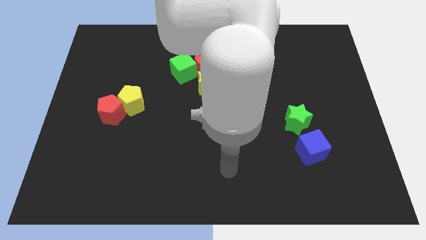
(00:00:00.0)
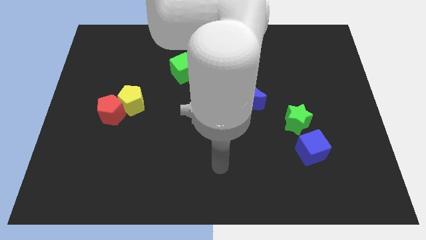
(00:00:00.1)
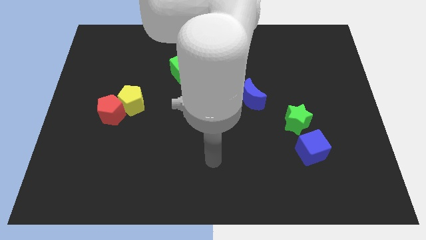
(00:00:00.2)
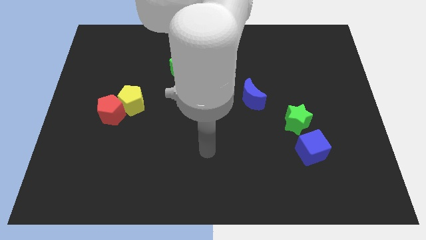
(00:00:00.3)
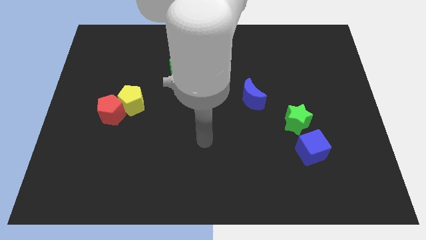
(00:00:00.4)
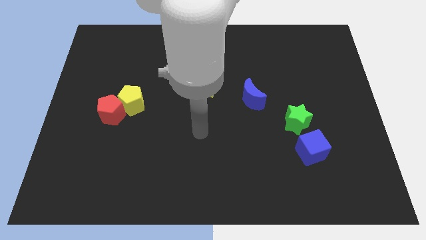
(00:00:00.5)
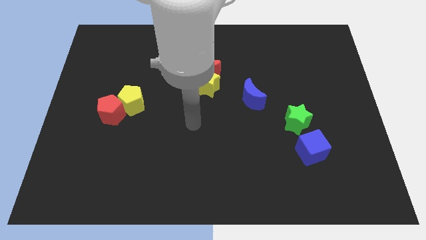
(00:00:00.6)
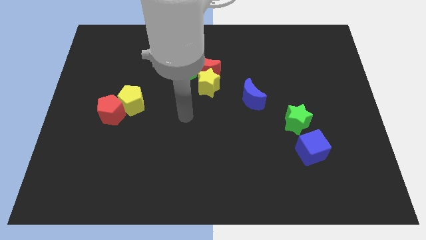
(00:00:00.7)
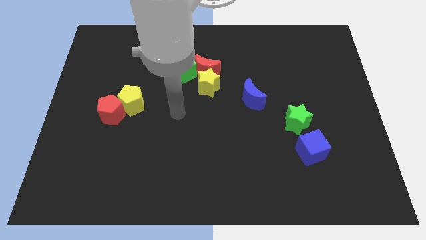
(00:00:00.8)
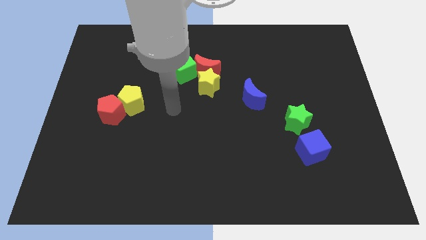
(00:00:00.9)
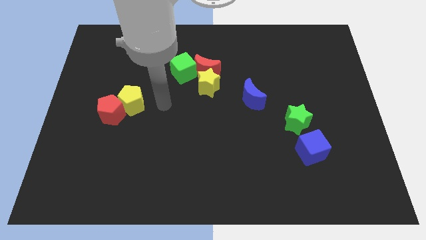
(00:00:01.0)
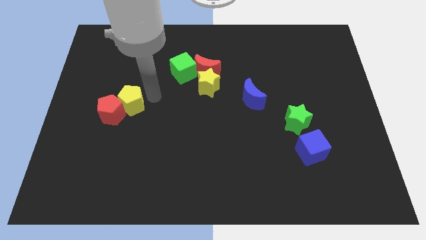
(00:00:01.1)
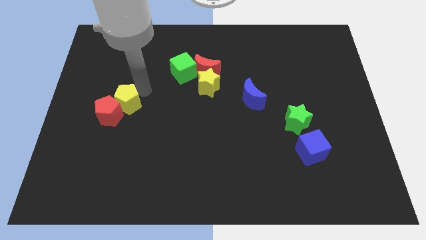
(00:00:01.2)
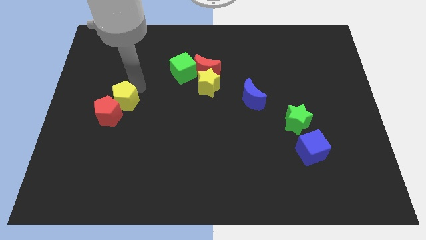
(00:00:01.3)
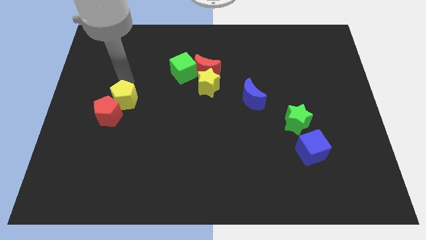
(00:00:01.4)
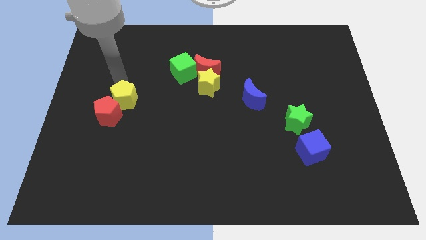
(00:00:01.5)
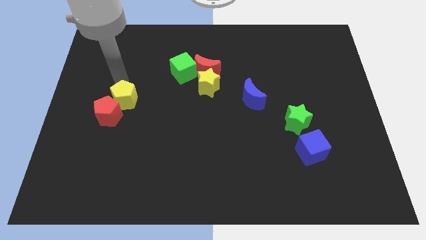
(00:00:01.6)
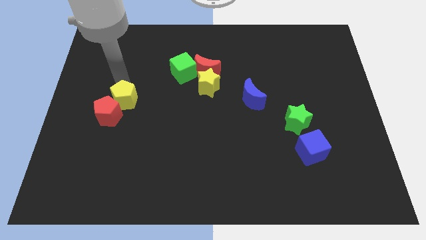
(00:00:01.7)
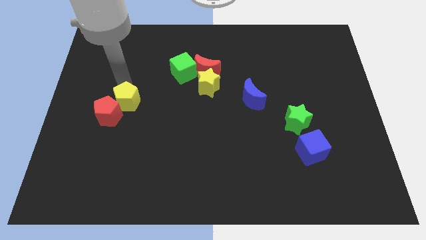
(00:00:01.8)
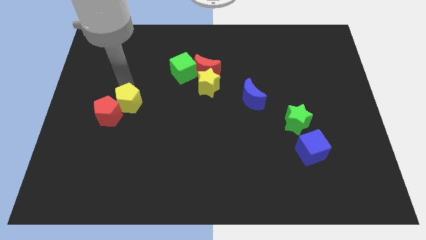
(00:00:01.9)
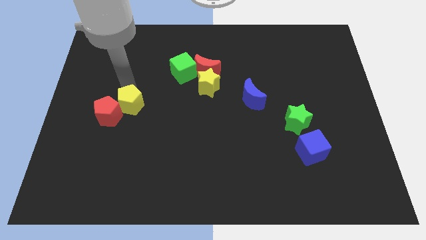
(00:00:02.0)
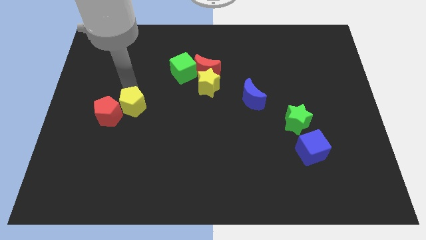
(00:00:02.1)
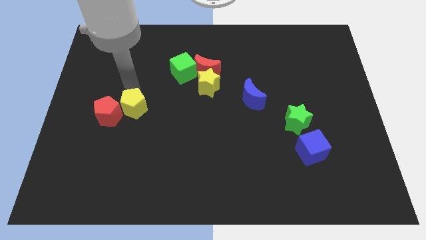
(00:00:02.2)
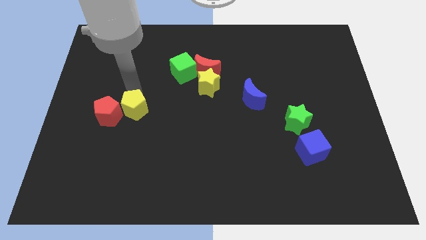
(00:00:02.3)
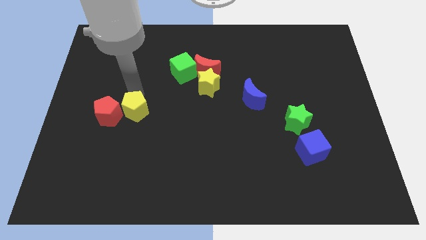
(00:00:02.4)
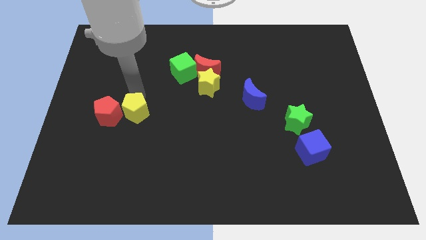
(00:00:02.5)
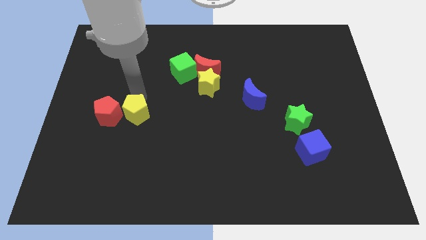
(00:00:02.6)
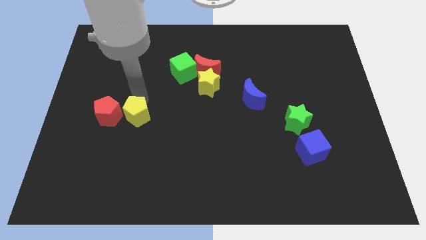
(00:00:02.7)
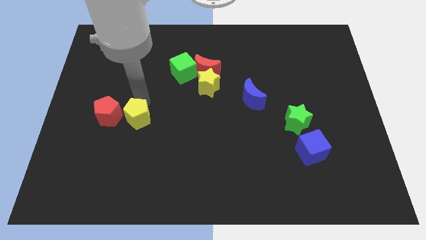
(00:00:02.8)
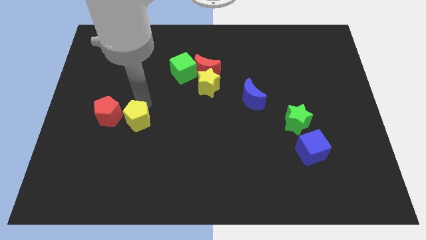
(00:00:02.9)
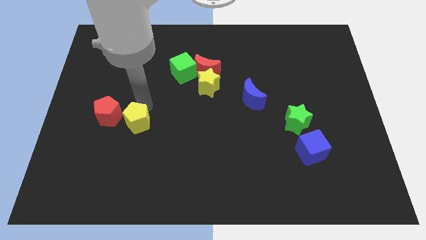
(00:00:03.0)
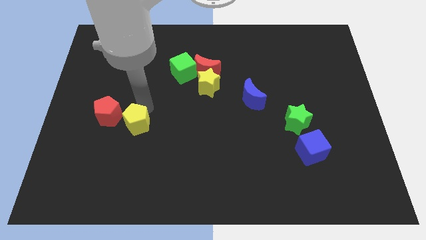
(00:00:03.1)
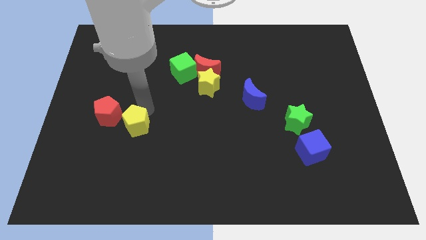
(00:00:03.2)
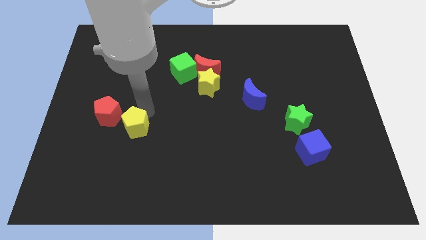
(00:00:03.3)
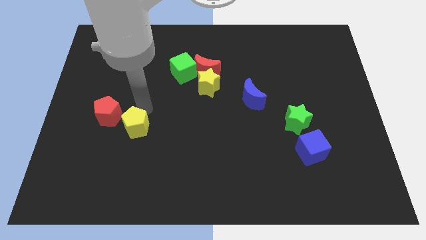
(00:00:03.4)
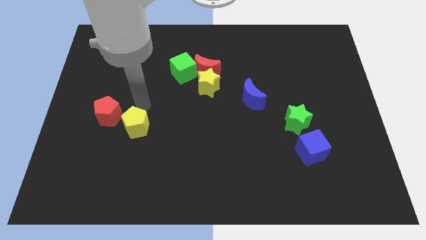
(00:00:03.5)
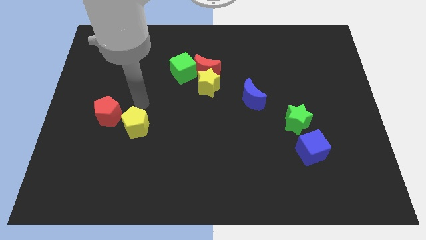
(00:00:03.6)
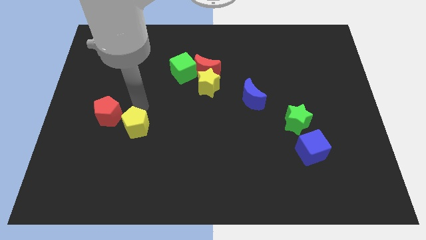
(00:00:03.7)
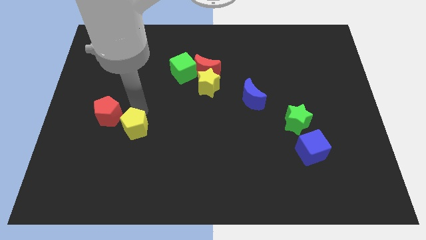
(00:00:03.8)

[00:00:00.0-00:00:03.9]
slide the yellow pentagon down a little

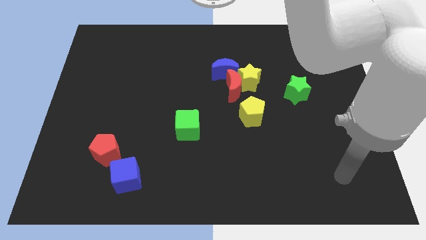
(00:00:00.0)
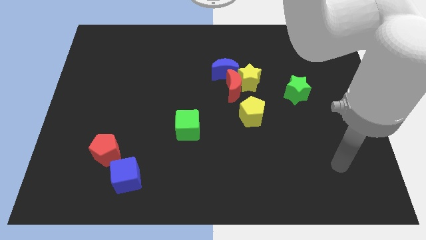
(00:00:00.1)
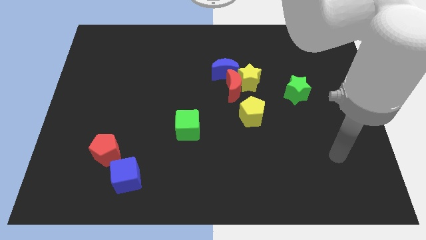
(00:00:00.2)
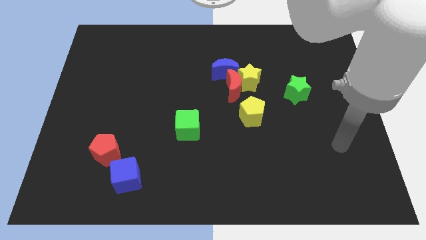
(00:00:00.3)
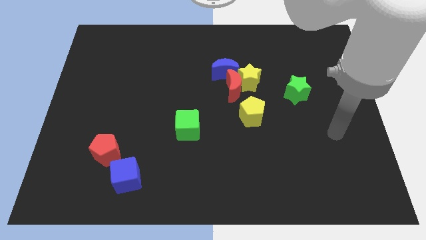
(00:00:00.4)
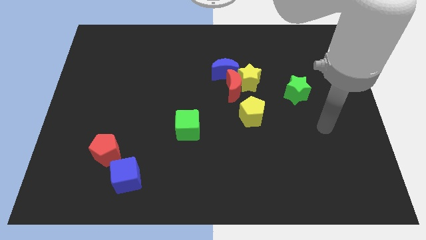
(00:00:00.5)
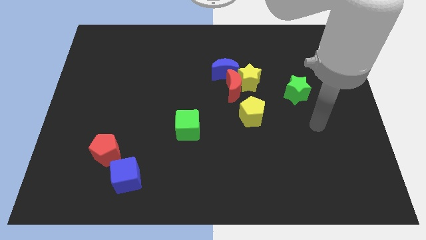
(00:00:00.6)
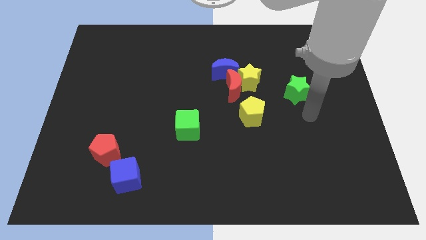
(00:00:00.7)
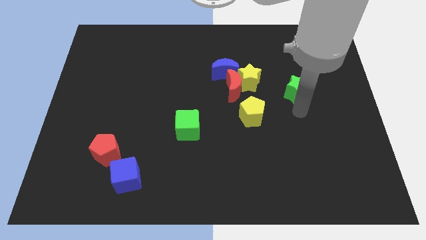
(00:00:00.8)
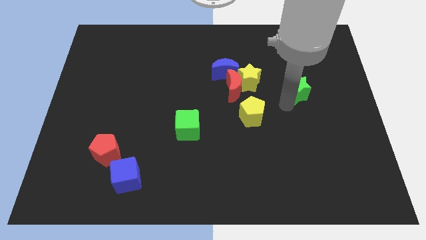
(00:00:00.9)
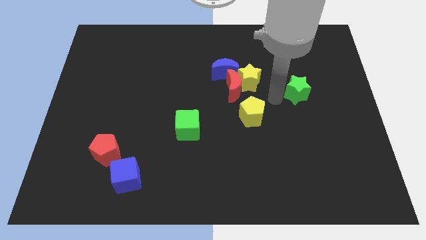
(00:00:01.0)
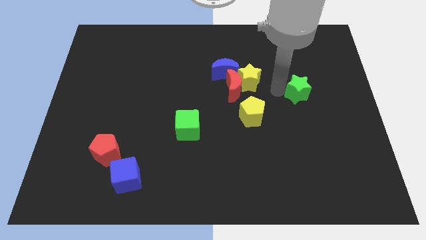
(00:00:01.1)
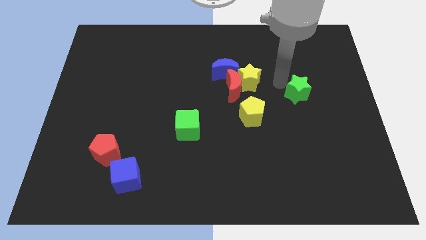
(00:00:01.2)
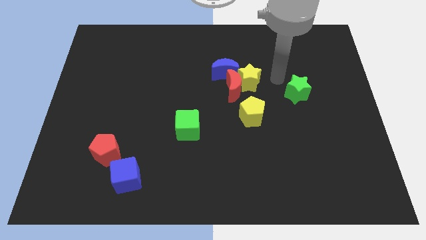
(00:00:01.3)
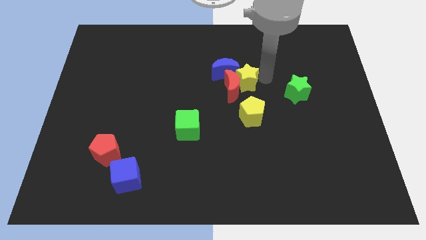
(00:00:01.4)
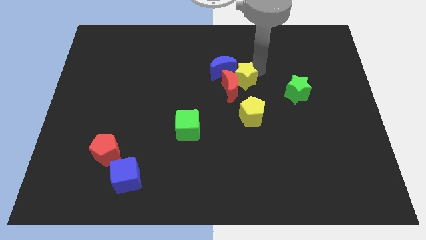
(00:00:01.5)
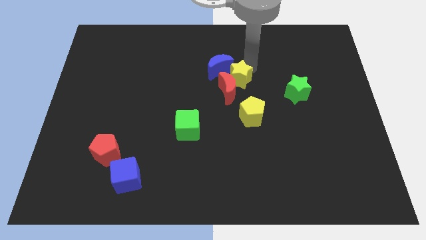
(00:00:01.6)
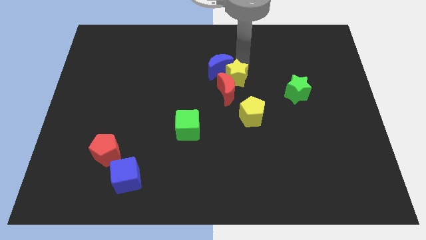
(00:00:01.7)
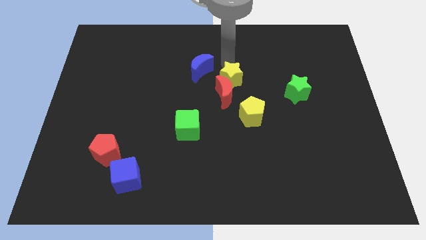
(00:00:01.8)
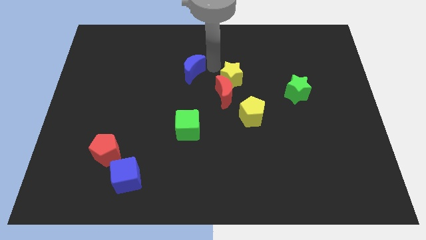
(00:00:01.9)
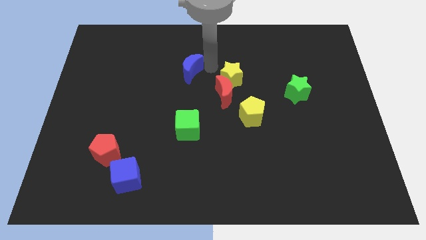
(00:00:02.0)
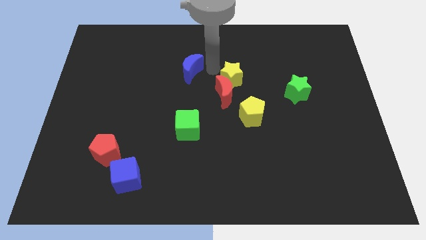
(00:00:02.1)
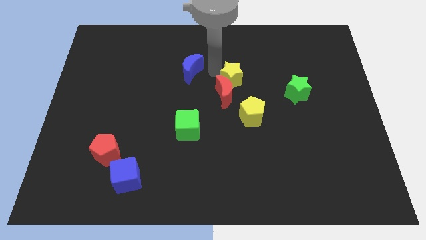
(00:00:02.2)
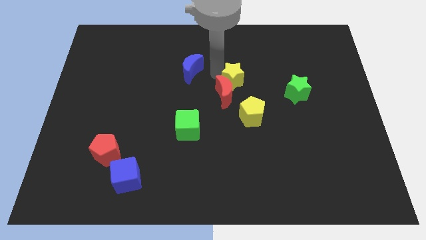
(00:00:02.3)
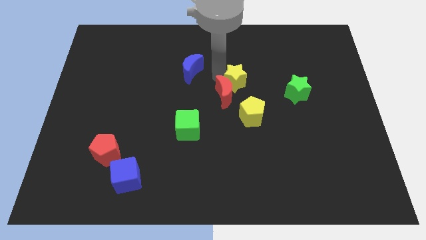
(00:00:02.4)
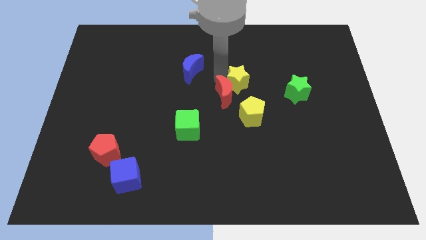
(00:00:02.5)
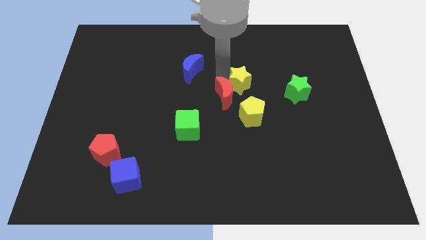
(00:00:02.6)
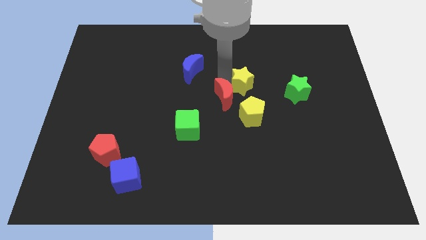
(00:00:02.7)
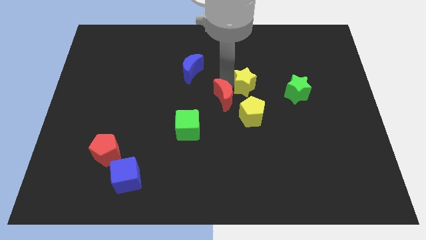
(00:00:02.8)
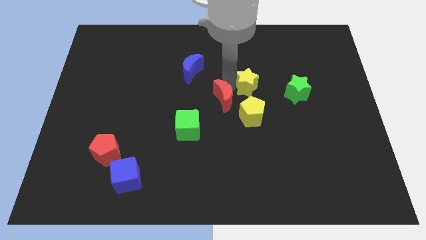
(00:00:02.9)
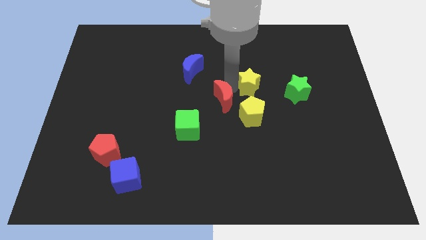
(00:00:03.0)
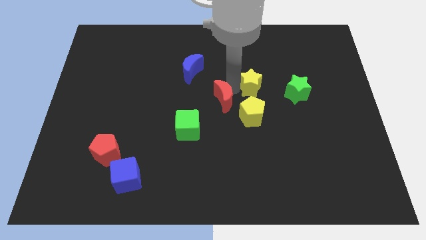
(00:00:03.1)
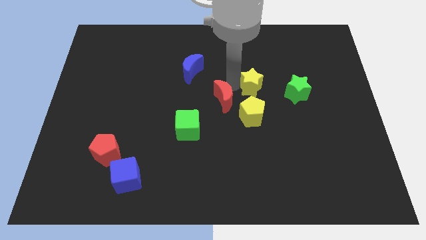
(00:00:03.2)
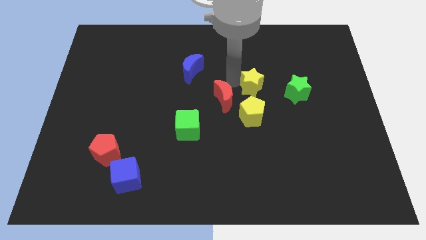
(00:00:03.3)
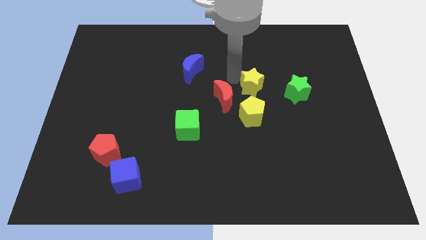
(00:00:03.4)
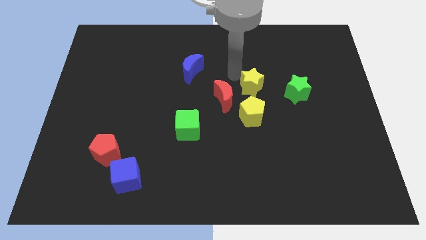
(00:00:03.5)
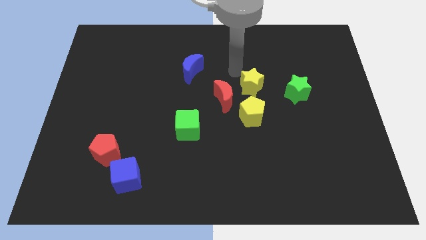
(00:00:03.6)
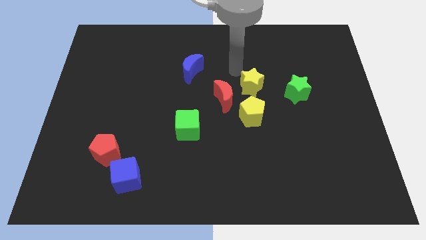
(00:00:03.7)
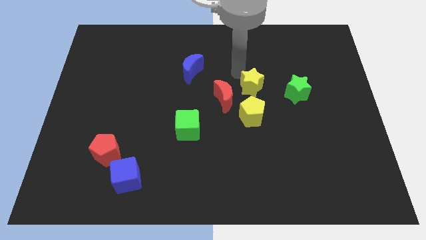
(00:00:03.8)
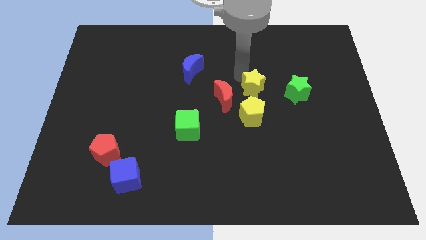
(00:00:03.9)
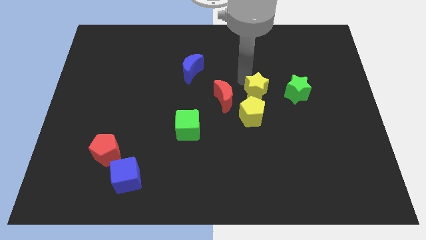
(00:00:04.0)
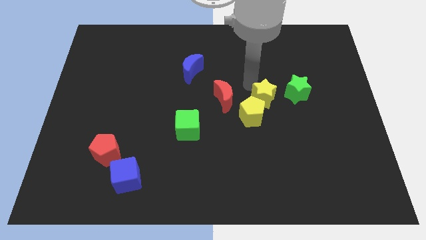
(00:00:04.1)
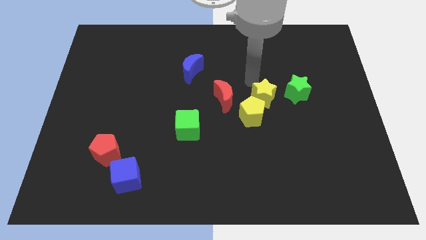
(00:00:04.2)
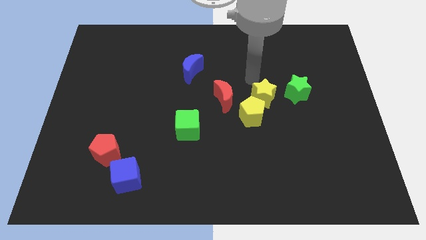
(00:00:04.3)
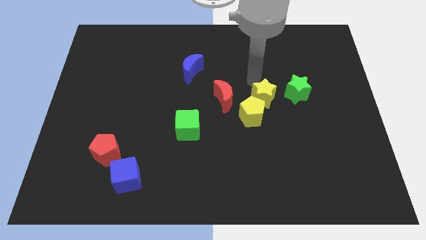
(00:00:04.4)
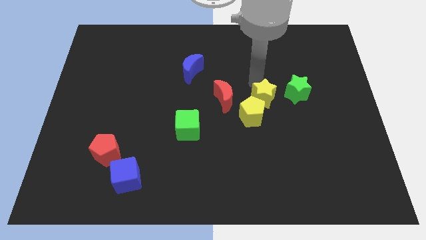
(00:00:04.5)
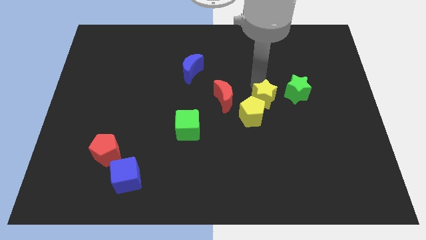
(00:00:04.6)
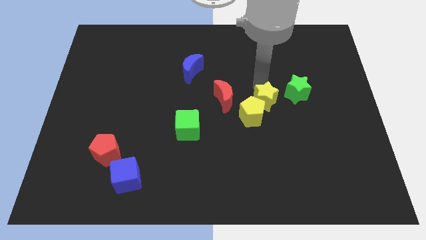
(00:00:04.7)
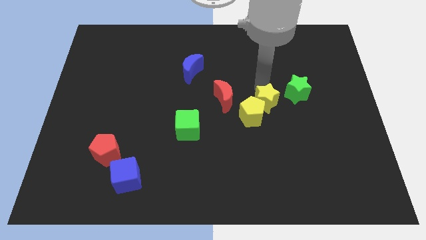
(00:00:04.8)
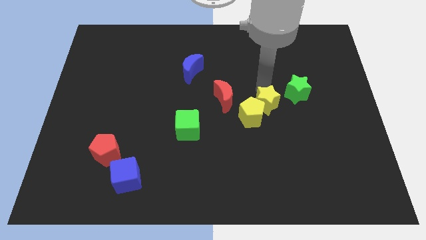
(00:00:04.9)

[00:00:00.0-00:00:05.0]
slightly move the yellow star down
